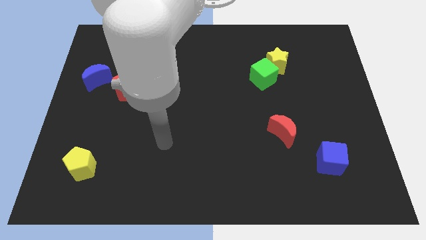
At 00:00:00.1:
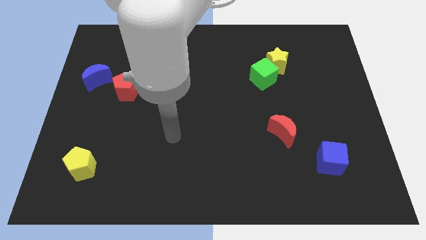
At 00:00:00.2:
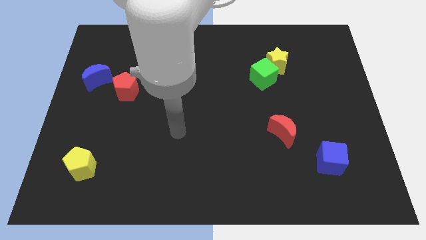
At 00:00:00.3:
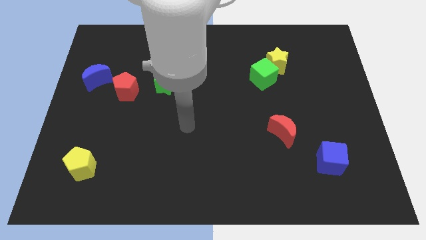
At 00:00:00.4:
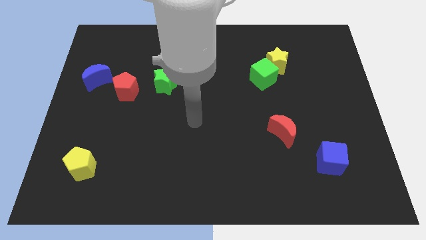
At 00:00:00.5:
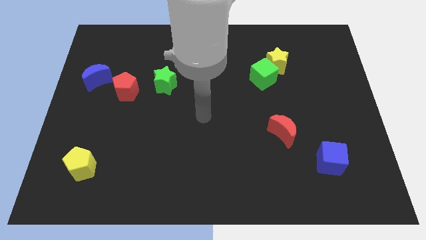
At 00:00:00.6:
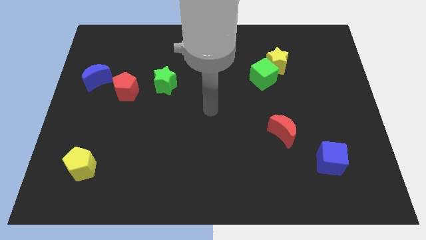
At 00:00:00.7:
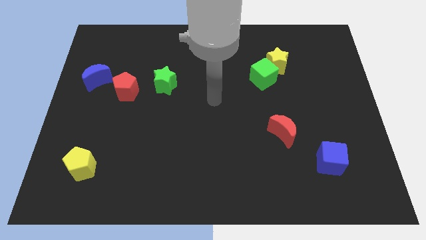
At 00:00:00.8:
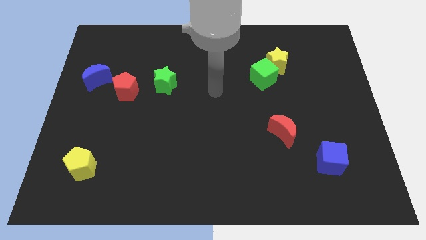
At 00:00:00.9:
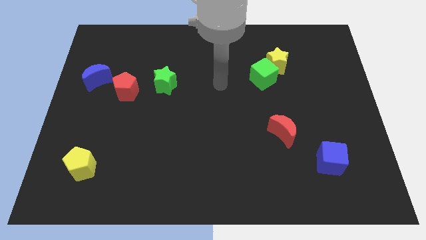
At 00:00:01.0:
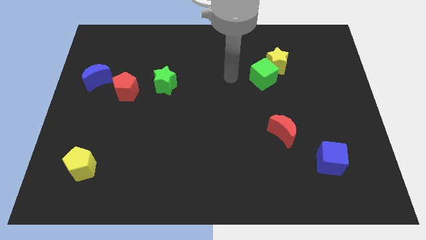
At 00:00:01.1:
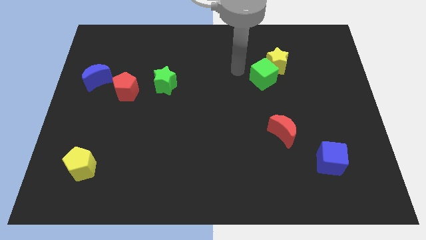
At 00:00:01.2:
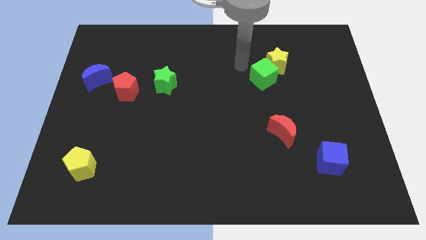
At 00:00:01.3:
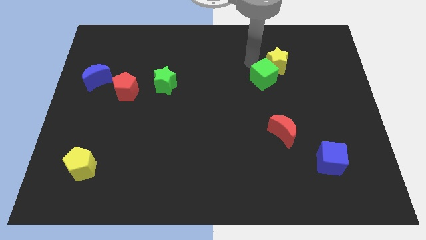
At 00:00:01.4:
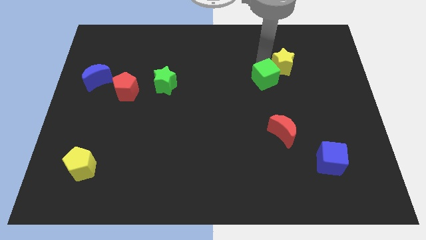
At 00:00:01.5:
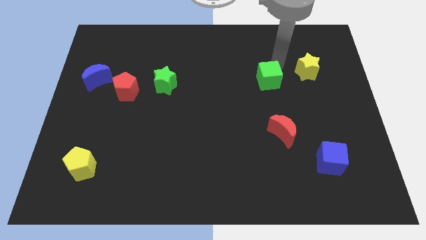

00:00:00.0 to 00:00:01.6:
move the green cube away from the yellow star

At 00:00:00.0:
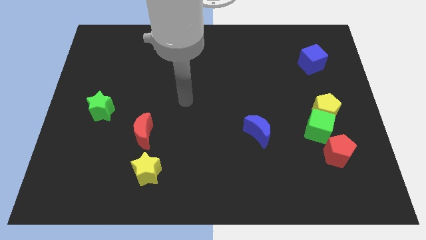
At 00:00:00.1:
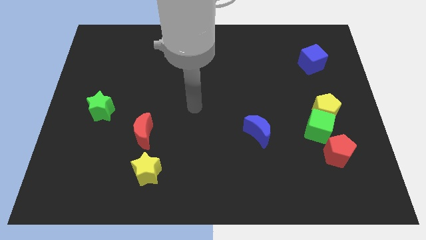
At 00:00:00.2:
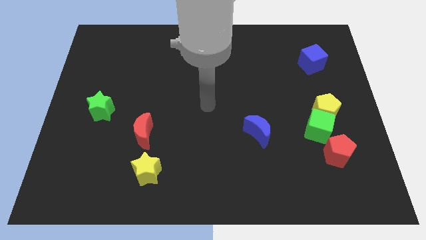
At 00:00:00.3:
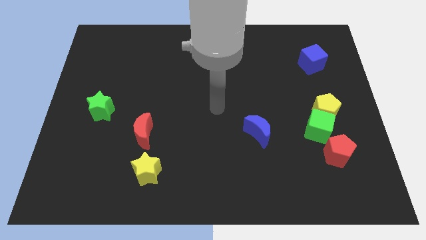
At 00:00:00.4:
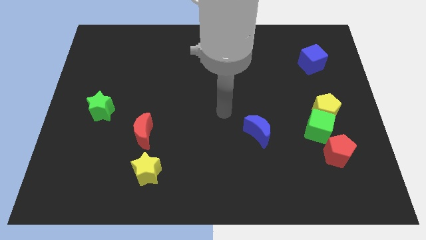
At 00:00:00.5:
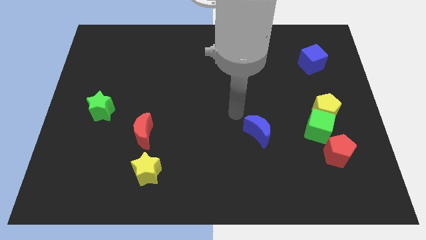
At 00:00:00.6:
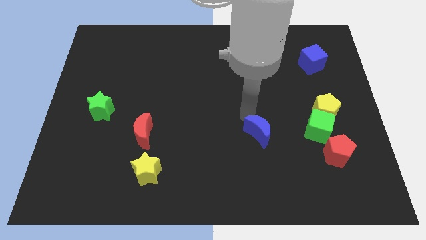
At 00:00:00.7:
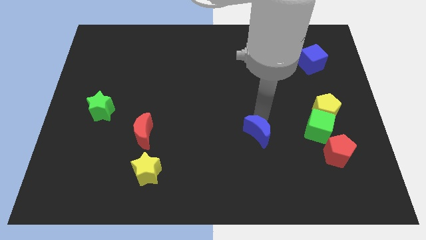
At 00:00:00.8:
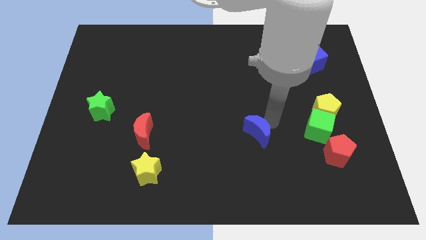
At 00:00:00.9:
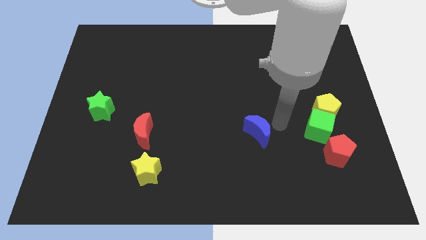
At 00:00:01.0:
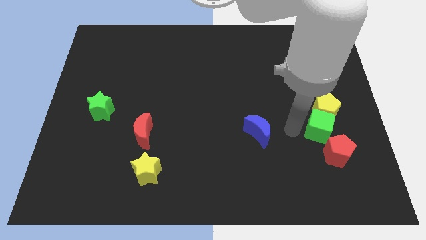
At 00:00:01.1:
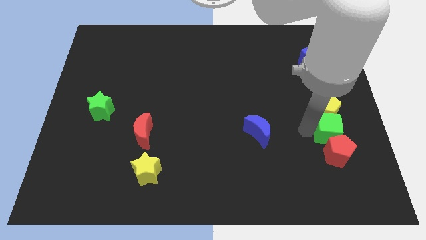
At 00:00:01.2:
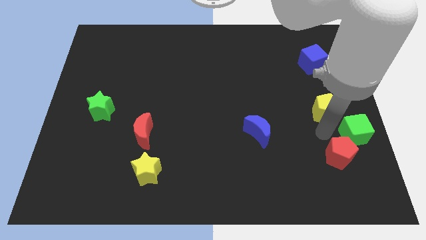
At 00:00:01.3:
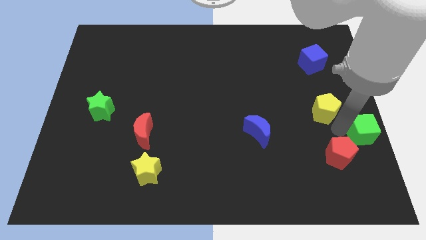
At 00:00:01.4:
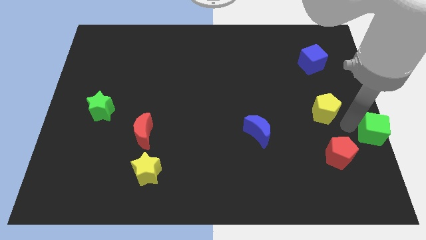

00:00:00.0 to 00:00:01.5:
separate the yellow pentagon from the green cube

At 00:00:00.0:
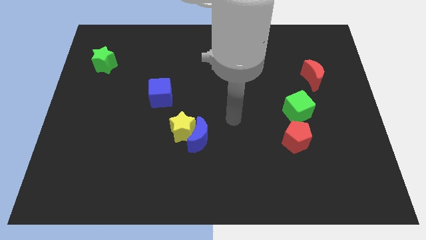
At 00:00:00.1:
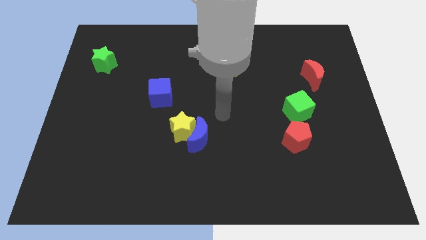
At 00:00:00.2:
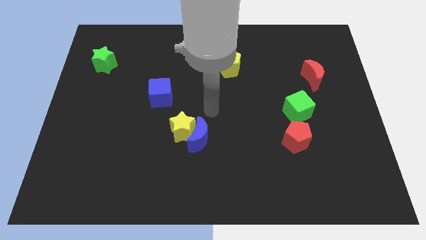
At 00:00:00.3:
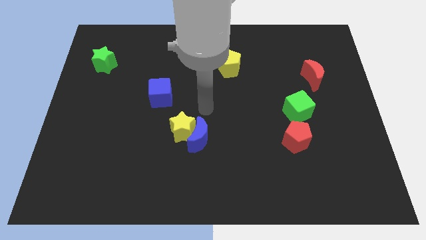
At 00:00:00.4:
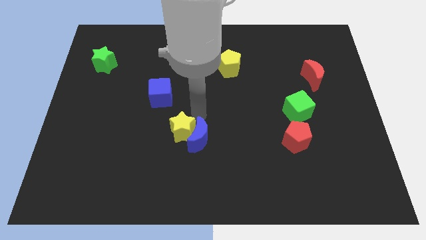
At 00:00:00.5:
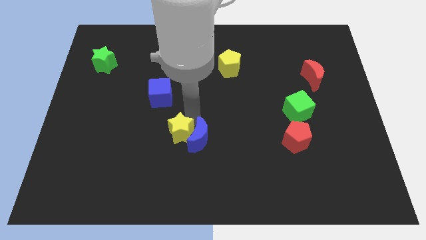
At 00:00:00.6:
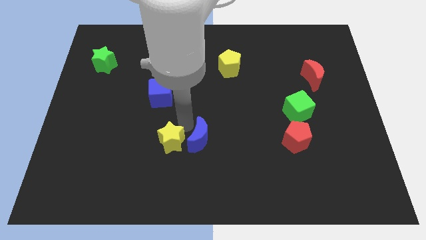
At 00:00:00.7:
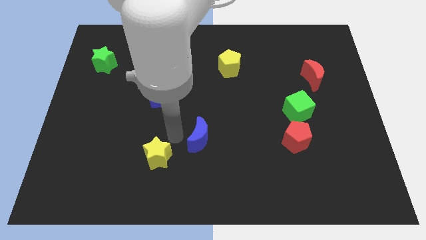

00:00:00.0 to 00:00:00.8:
separate the blue moon from the yellow star

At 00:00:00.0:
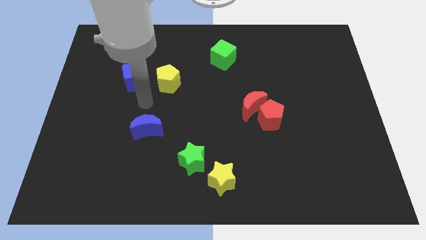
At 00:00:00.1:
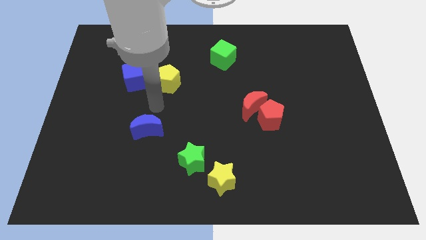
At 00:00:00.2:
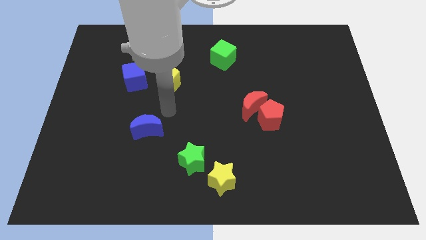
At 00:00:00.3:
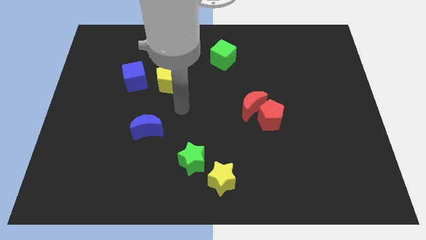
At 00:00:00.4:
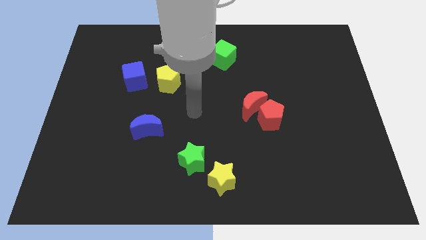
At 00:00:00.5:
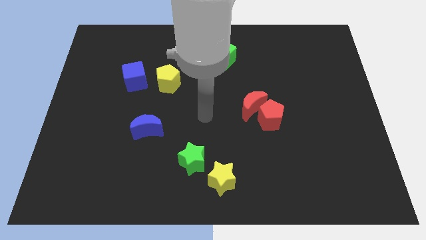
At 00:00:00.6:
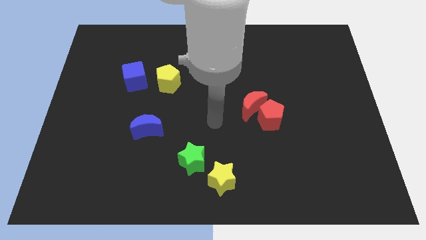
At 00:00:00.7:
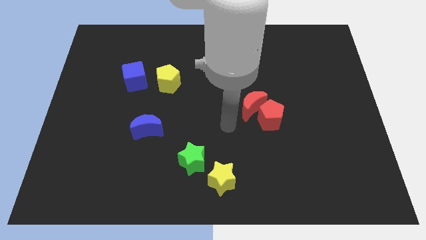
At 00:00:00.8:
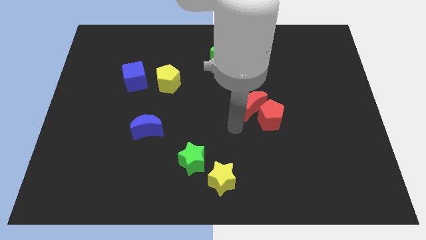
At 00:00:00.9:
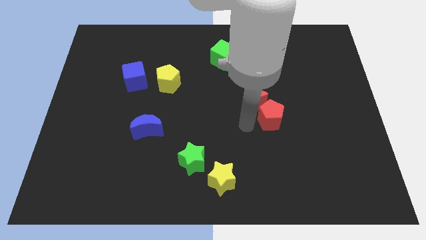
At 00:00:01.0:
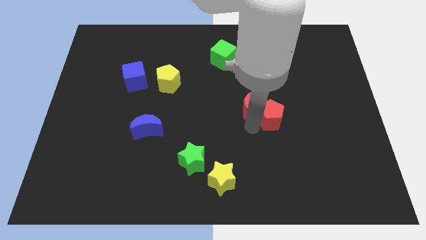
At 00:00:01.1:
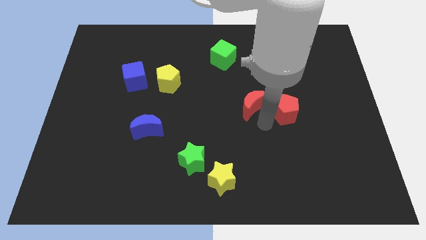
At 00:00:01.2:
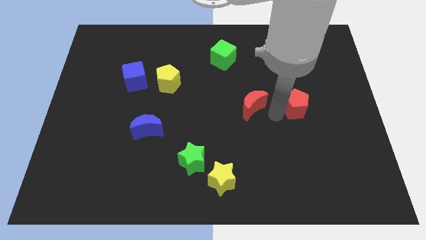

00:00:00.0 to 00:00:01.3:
separate the red moon from the red pentagon

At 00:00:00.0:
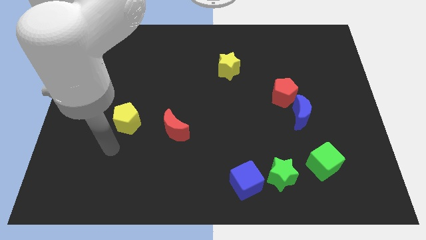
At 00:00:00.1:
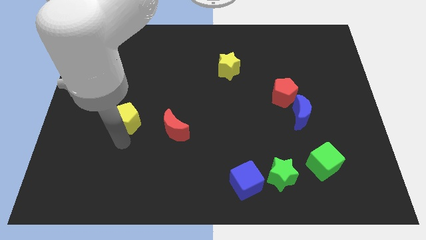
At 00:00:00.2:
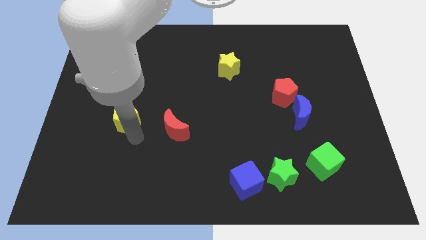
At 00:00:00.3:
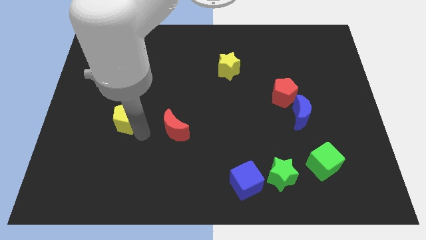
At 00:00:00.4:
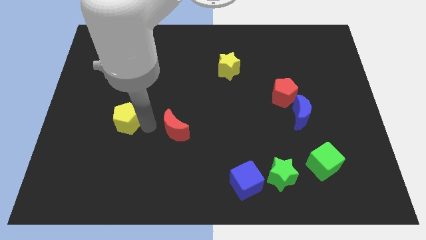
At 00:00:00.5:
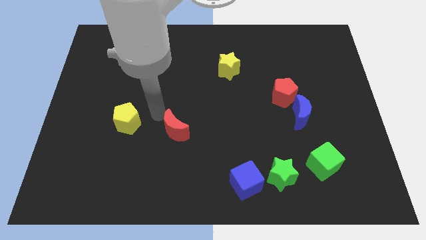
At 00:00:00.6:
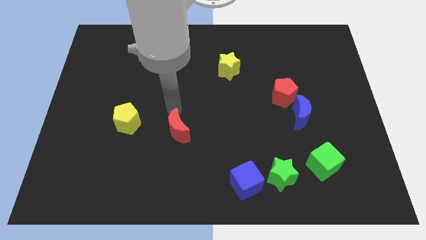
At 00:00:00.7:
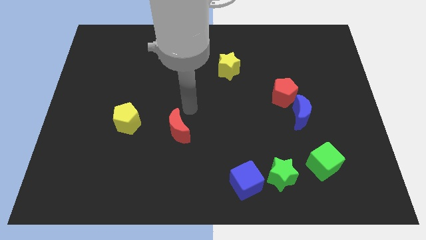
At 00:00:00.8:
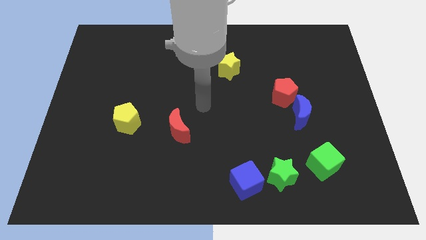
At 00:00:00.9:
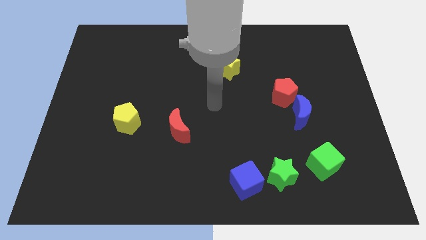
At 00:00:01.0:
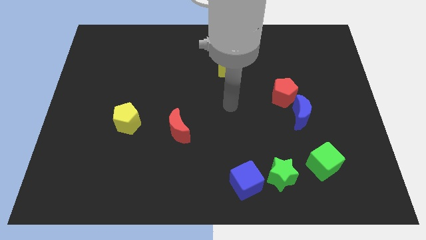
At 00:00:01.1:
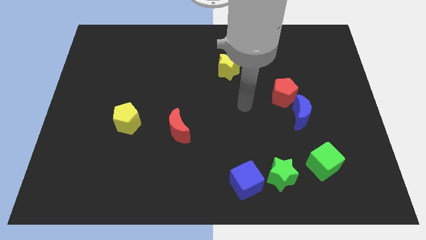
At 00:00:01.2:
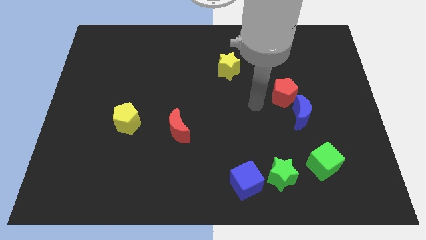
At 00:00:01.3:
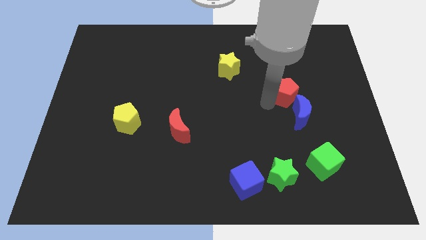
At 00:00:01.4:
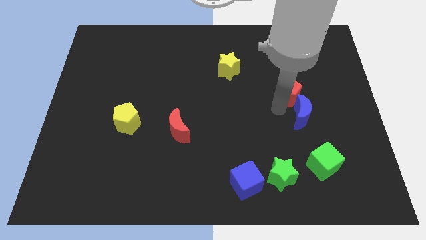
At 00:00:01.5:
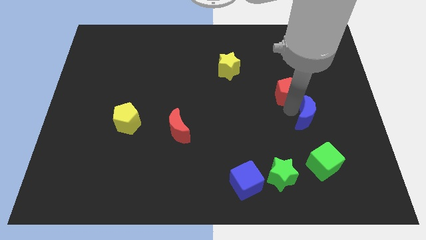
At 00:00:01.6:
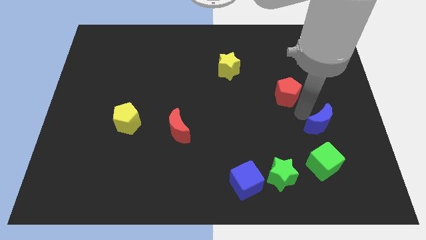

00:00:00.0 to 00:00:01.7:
pull the red pentagon apart from the blue moon

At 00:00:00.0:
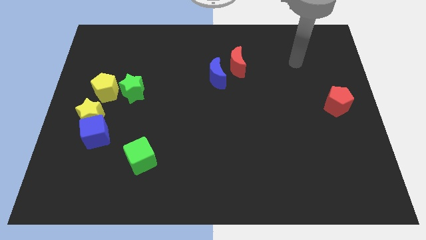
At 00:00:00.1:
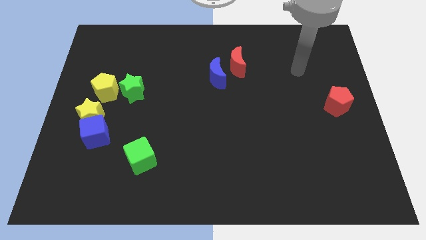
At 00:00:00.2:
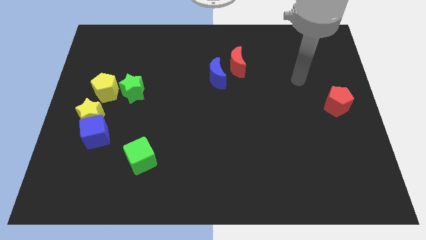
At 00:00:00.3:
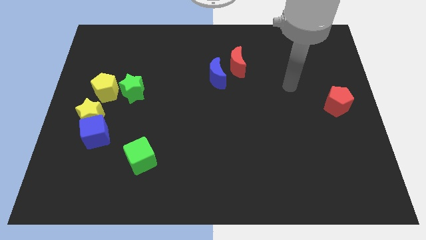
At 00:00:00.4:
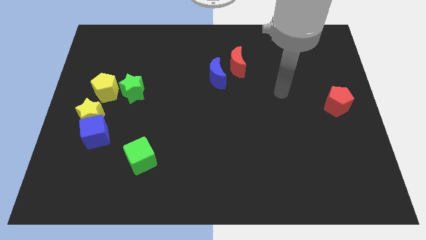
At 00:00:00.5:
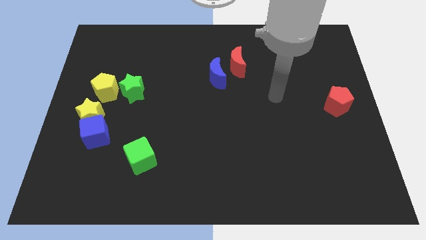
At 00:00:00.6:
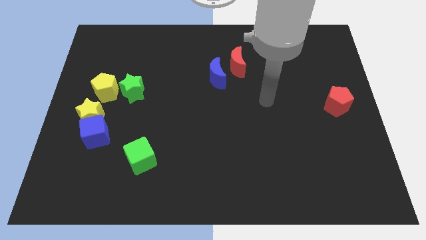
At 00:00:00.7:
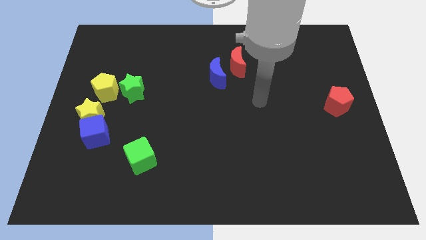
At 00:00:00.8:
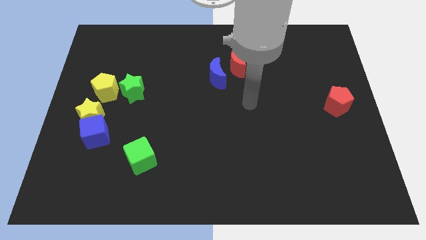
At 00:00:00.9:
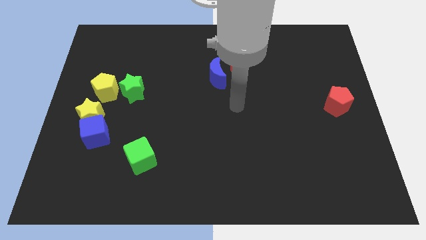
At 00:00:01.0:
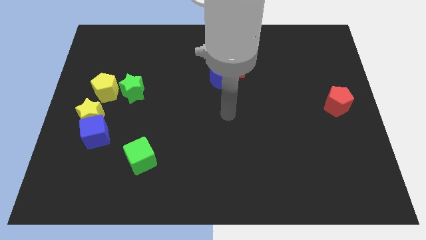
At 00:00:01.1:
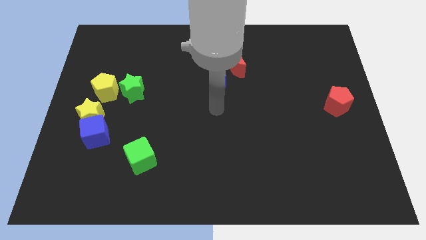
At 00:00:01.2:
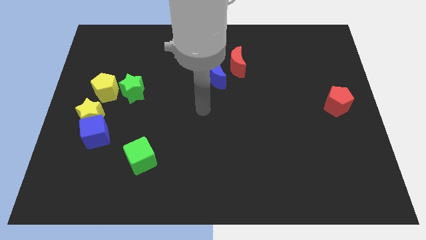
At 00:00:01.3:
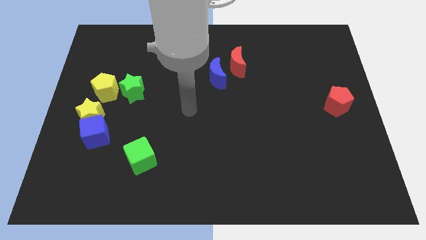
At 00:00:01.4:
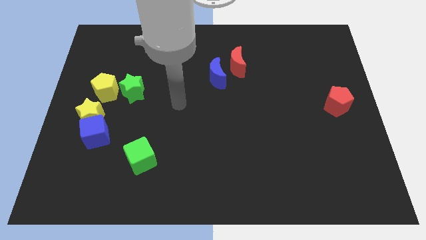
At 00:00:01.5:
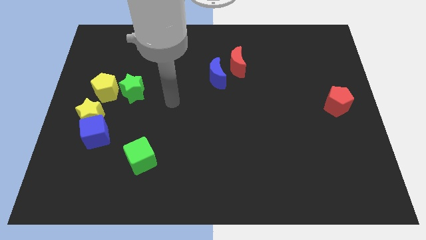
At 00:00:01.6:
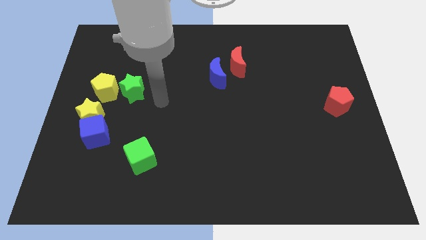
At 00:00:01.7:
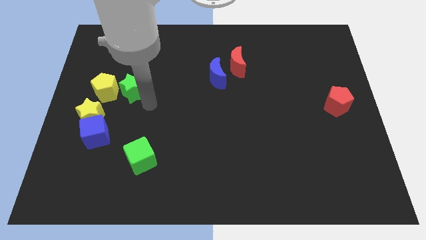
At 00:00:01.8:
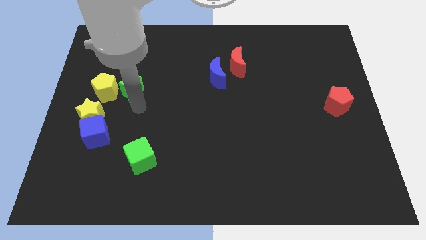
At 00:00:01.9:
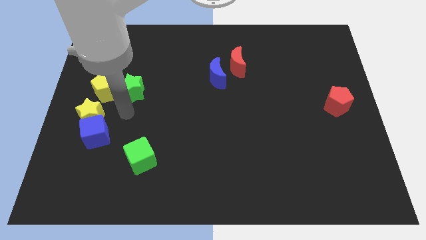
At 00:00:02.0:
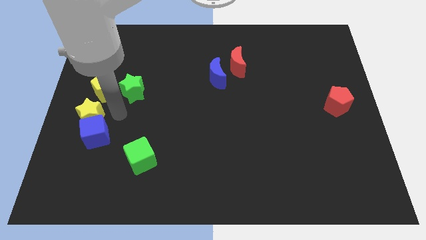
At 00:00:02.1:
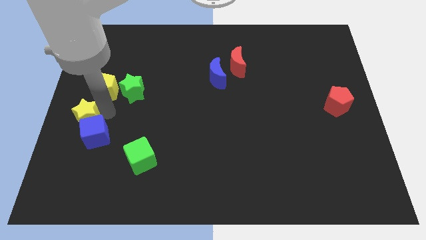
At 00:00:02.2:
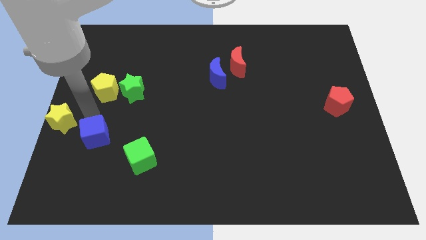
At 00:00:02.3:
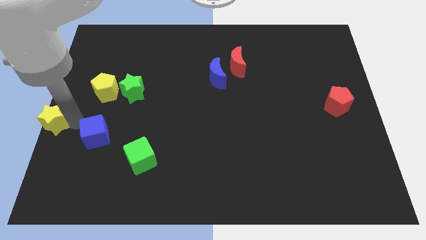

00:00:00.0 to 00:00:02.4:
move the blue cube away from the yellow star
